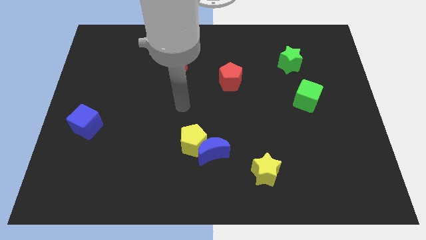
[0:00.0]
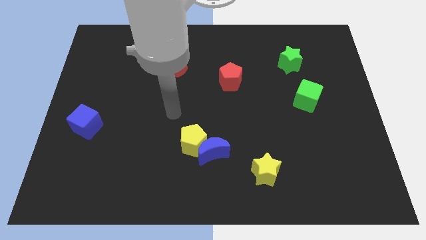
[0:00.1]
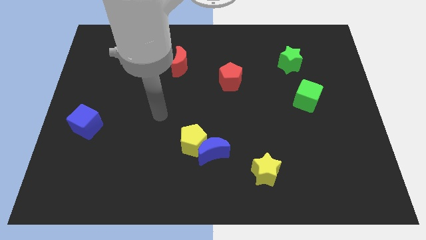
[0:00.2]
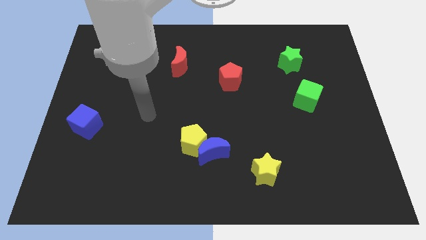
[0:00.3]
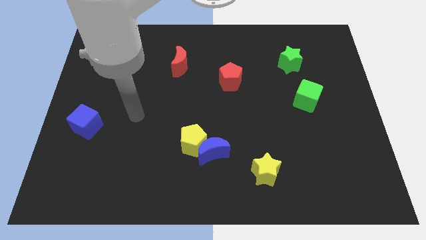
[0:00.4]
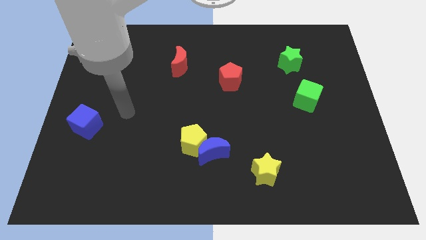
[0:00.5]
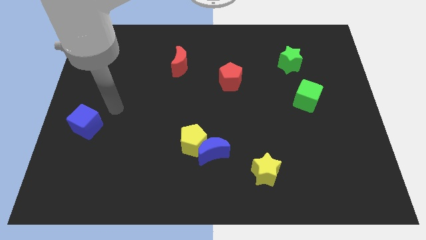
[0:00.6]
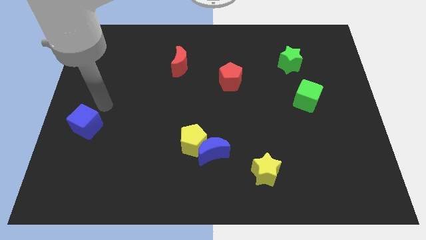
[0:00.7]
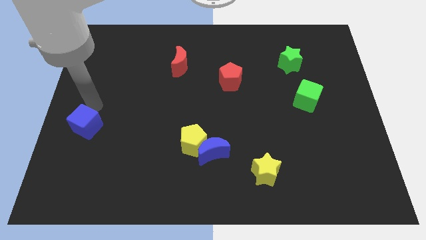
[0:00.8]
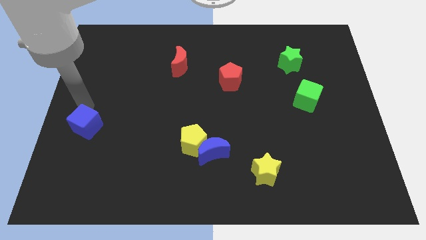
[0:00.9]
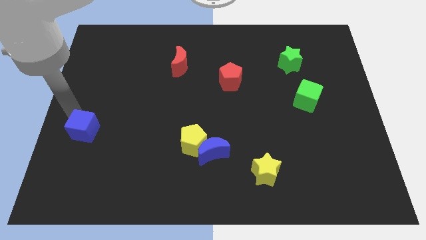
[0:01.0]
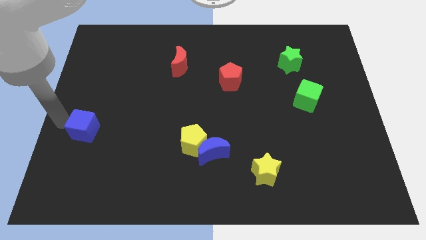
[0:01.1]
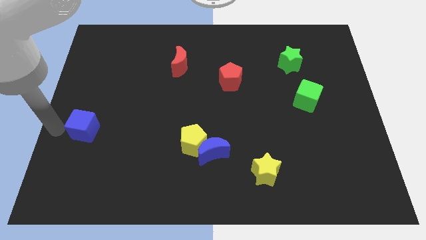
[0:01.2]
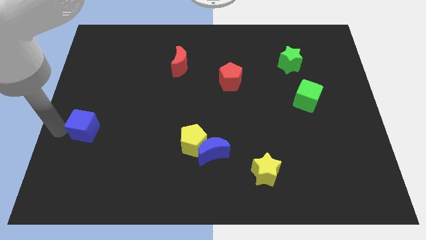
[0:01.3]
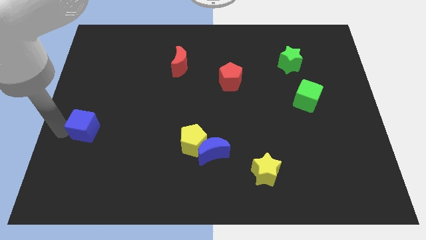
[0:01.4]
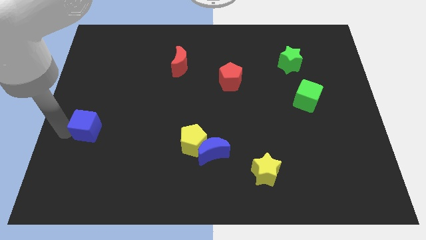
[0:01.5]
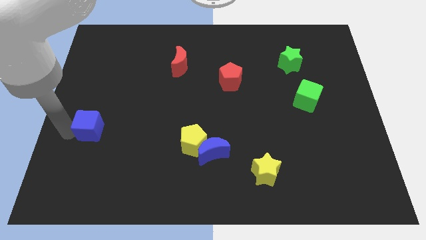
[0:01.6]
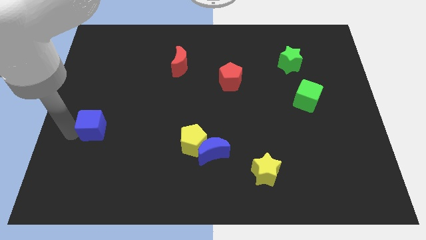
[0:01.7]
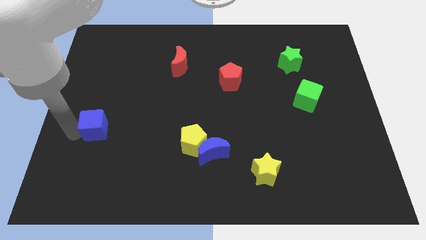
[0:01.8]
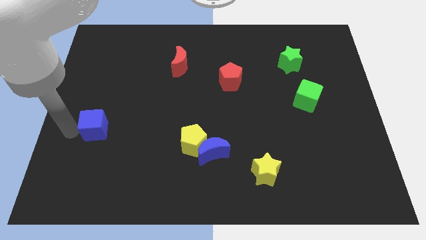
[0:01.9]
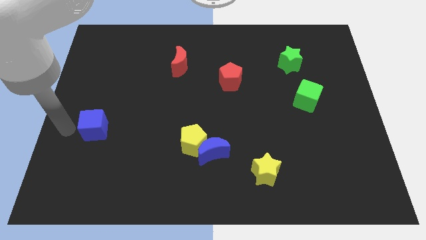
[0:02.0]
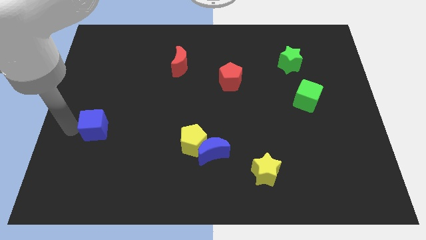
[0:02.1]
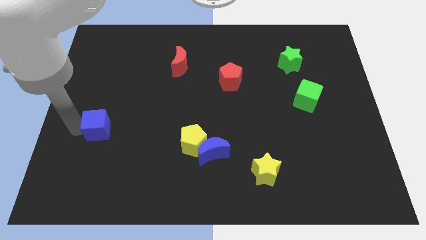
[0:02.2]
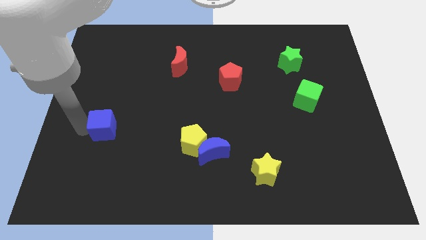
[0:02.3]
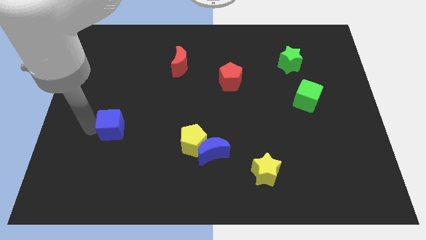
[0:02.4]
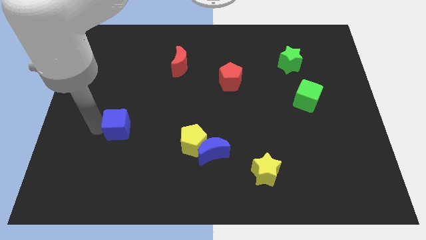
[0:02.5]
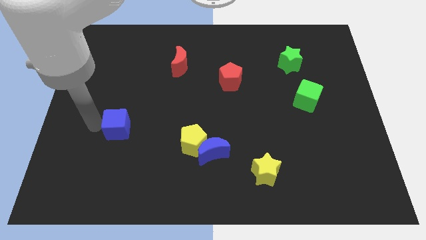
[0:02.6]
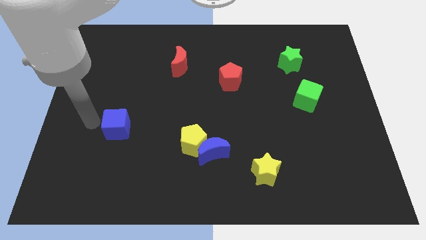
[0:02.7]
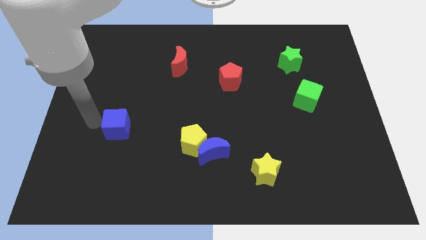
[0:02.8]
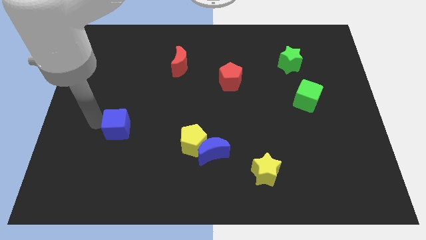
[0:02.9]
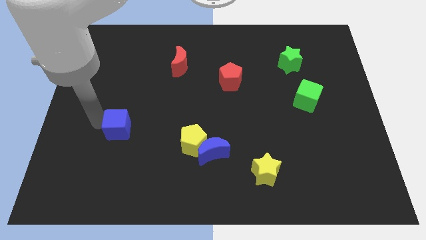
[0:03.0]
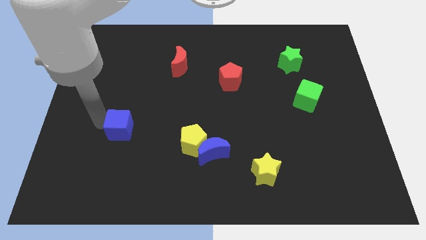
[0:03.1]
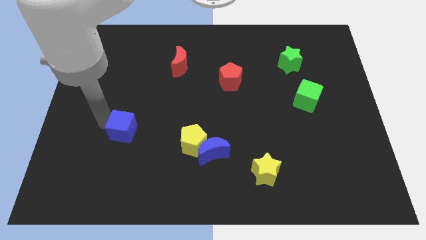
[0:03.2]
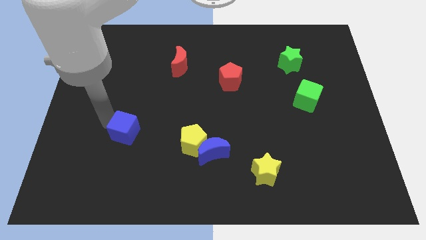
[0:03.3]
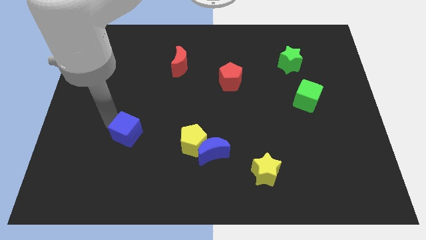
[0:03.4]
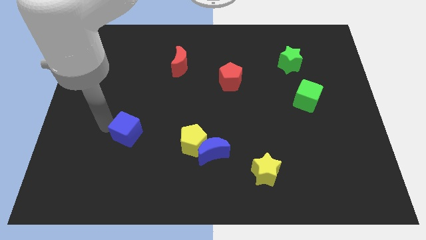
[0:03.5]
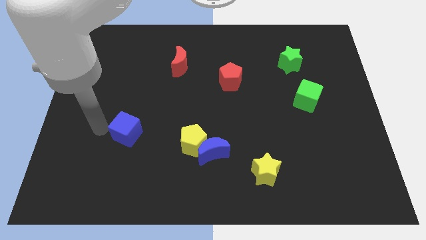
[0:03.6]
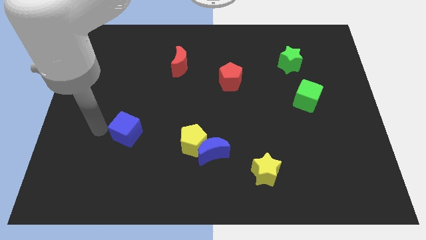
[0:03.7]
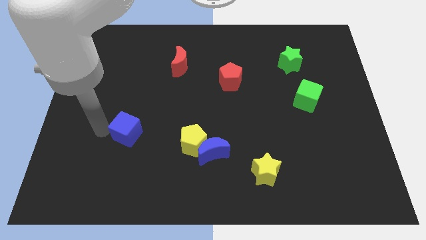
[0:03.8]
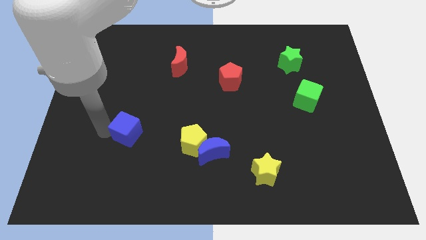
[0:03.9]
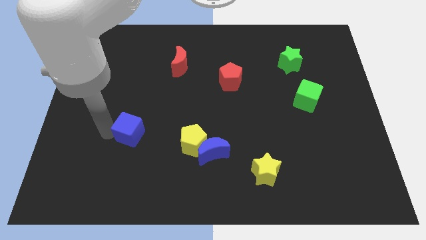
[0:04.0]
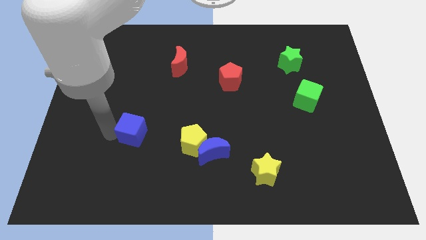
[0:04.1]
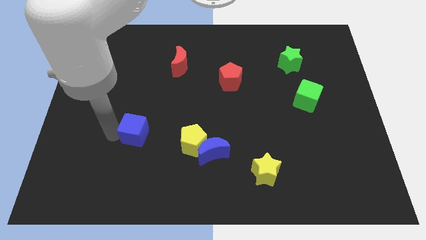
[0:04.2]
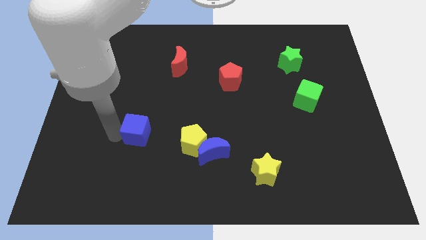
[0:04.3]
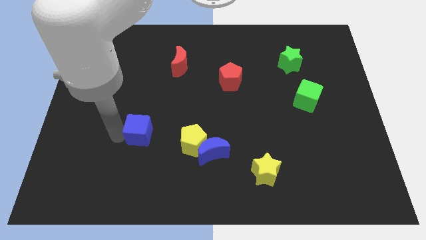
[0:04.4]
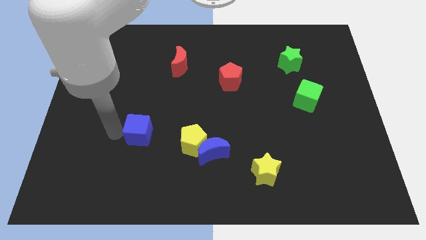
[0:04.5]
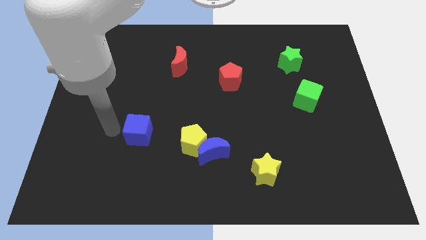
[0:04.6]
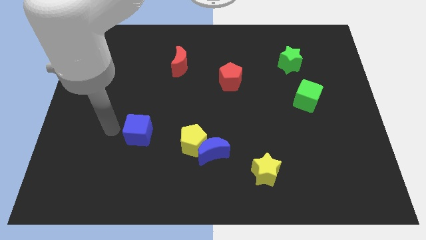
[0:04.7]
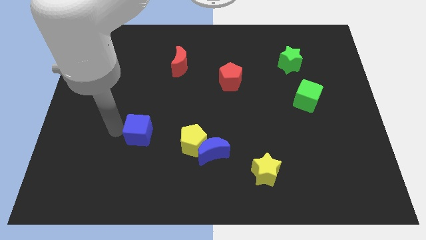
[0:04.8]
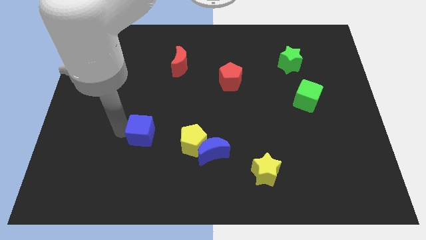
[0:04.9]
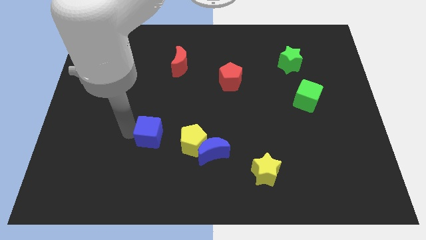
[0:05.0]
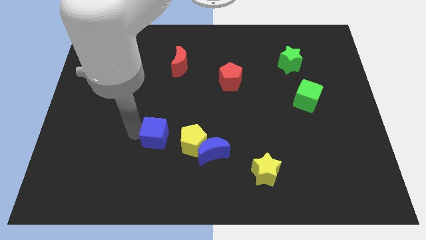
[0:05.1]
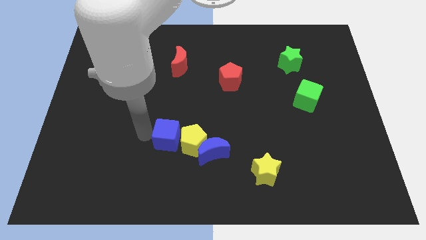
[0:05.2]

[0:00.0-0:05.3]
slide the blue cube next to the yellow pentagon

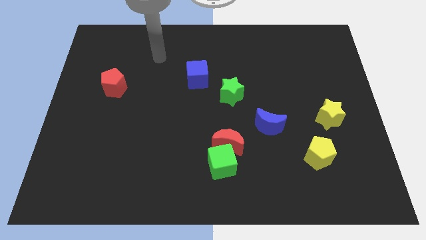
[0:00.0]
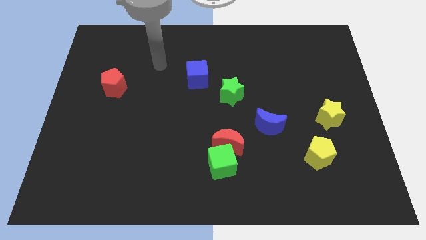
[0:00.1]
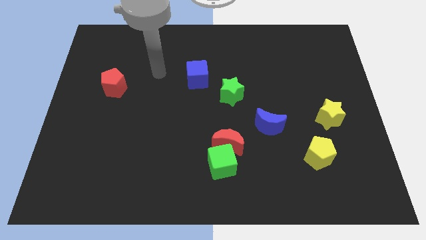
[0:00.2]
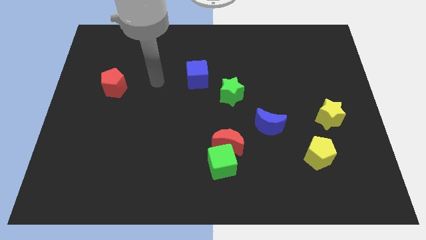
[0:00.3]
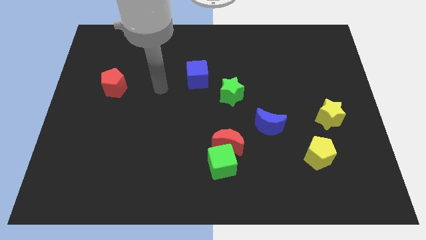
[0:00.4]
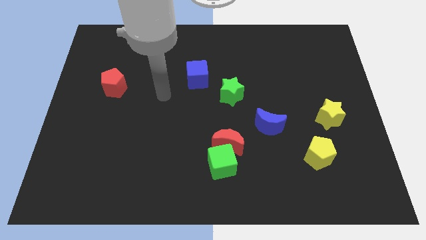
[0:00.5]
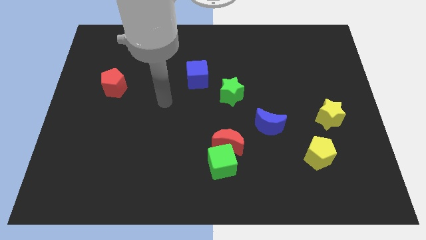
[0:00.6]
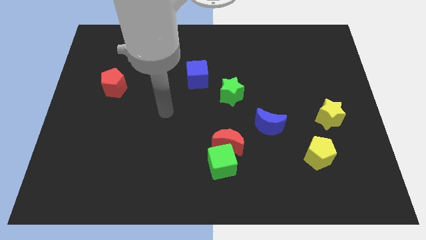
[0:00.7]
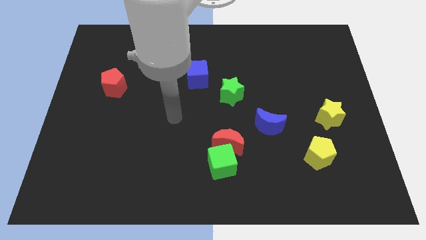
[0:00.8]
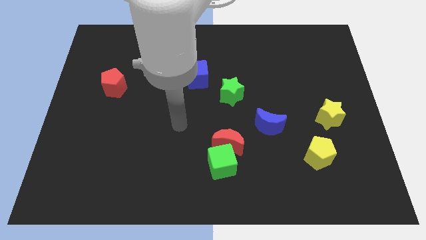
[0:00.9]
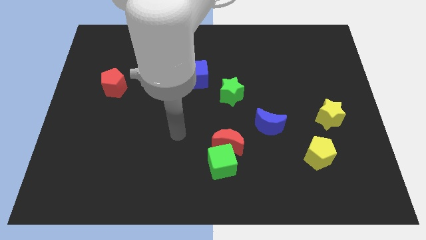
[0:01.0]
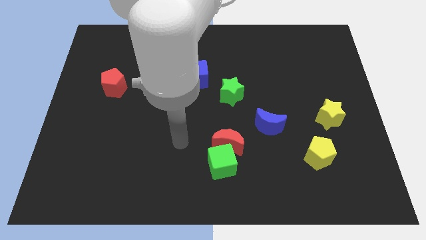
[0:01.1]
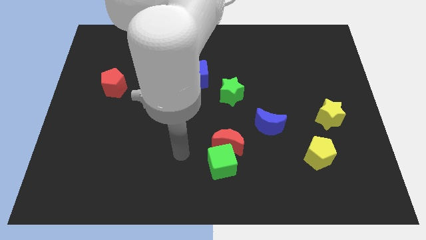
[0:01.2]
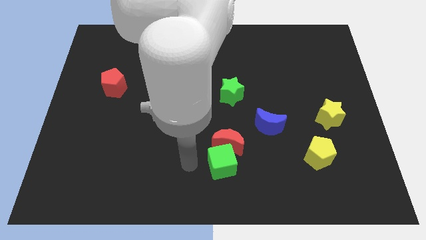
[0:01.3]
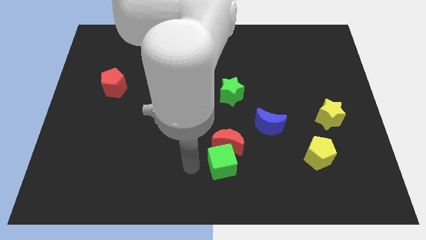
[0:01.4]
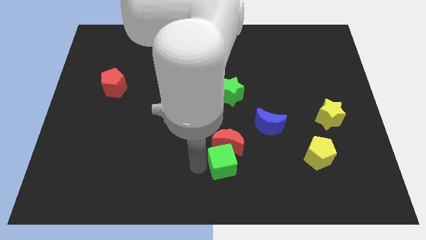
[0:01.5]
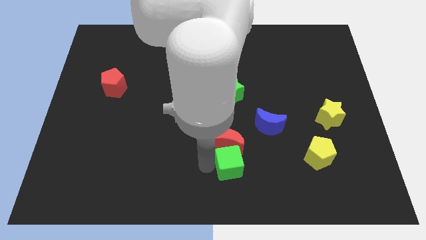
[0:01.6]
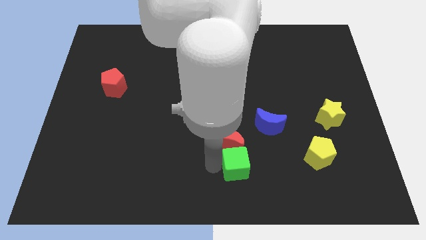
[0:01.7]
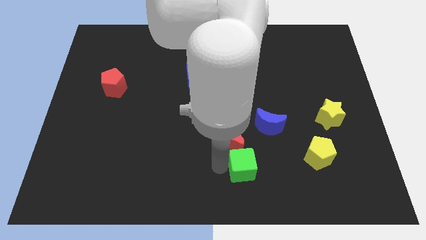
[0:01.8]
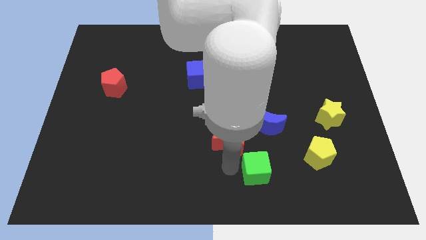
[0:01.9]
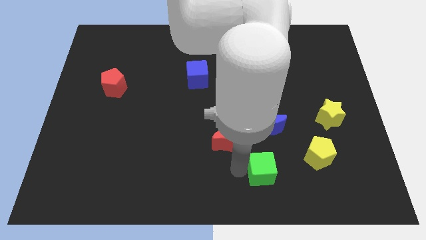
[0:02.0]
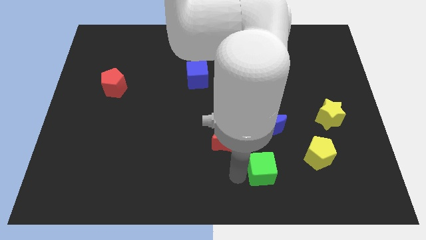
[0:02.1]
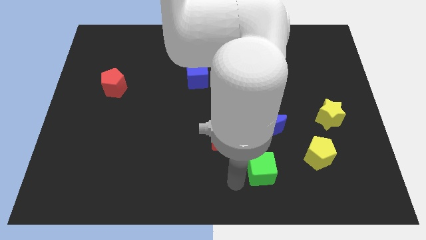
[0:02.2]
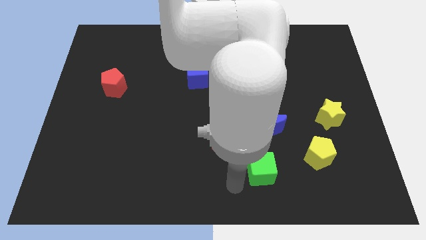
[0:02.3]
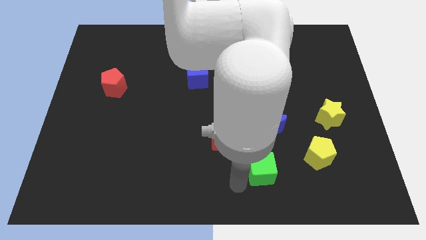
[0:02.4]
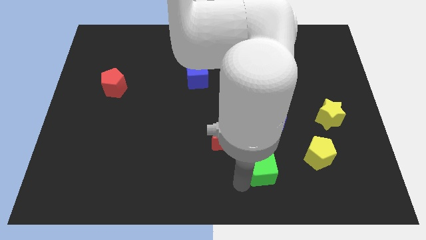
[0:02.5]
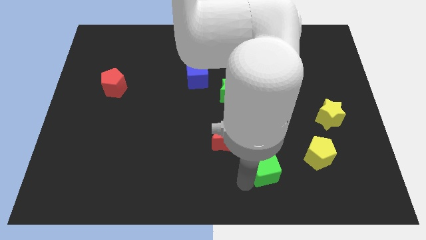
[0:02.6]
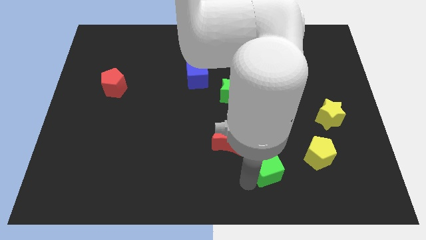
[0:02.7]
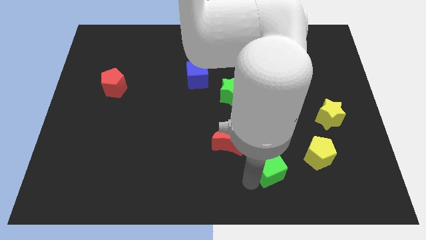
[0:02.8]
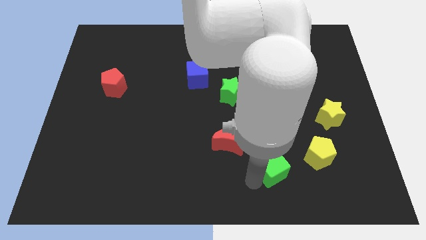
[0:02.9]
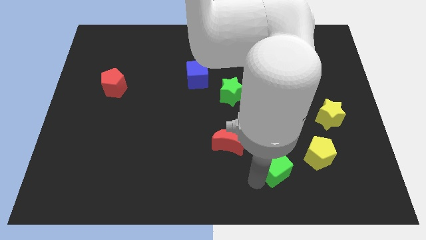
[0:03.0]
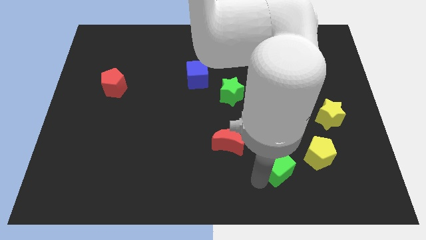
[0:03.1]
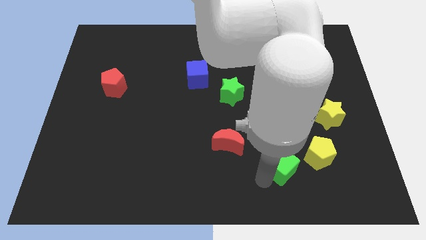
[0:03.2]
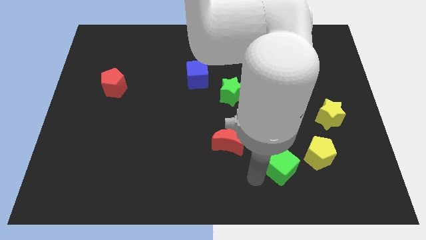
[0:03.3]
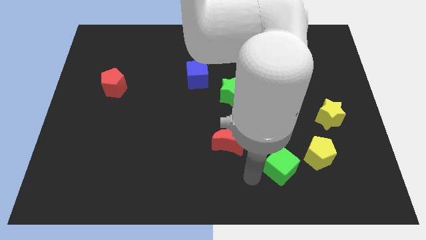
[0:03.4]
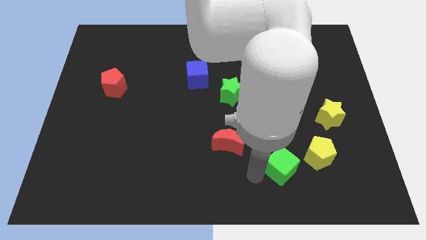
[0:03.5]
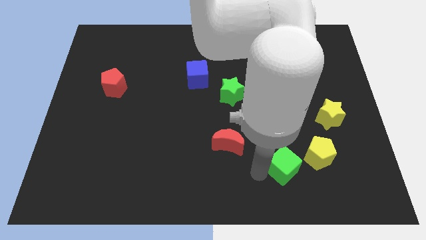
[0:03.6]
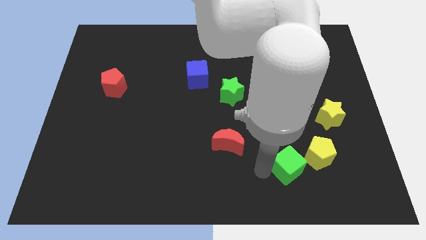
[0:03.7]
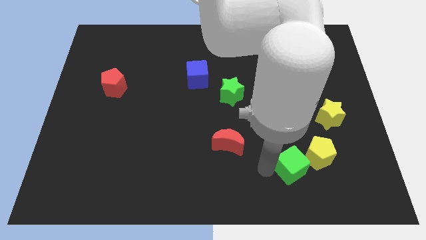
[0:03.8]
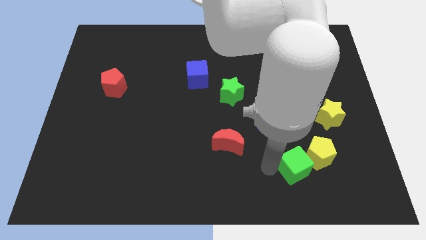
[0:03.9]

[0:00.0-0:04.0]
slide the green cube to the yellow pentagon
